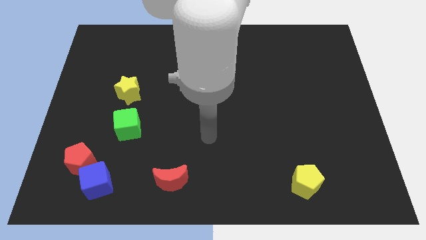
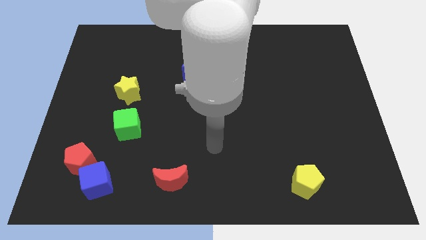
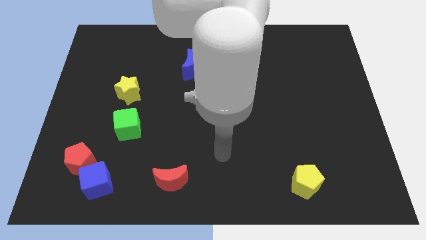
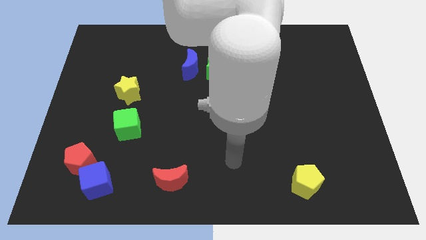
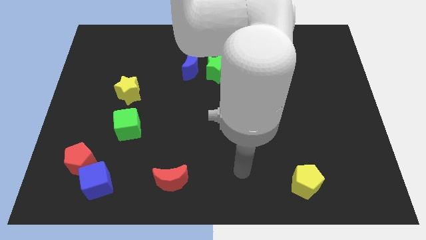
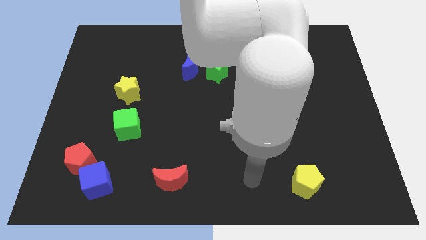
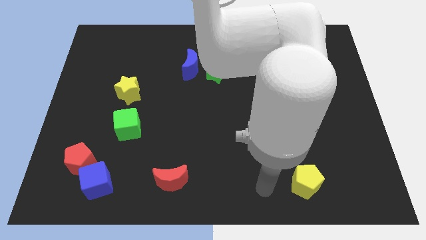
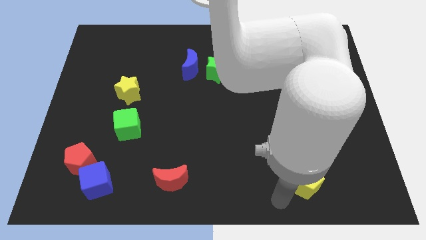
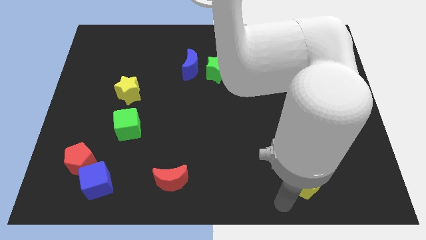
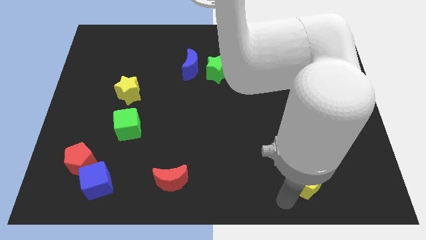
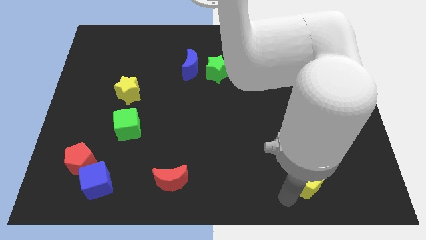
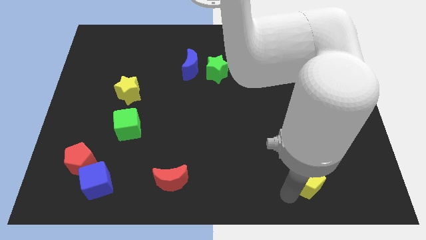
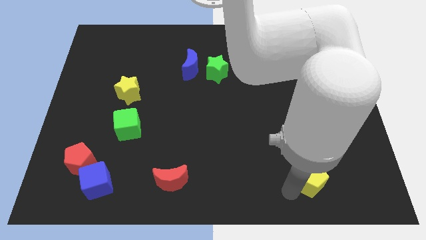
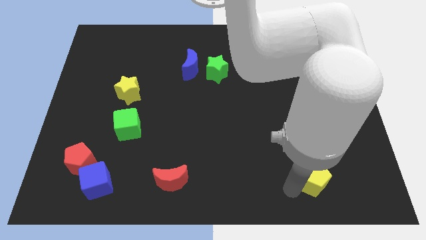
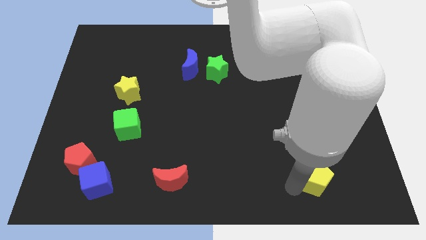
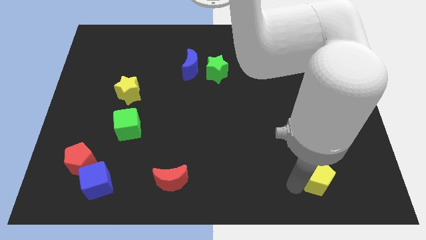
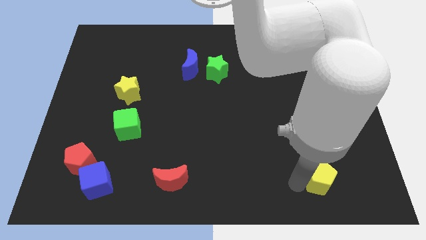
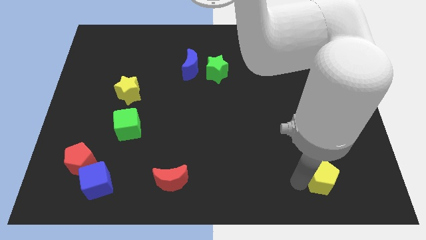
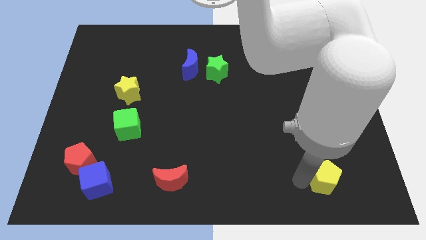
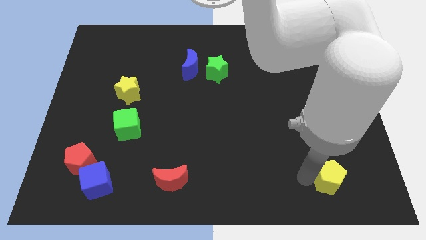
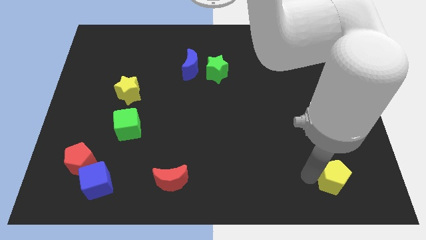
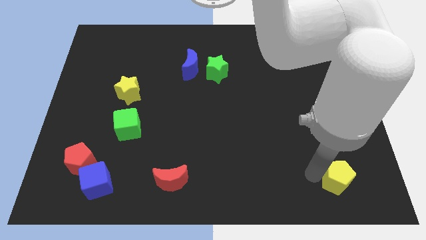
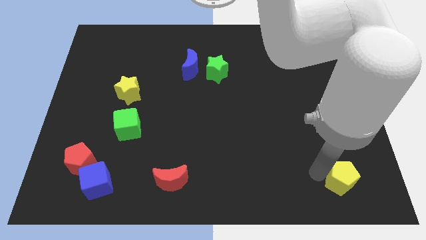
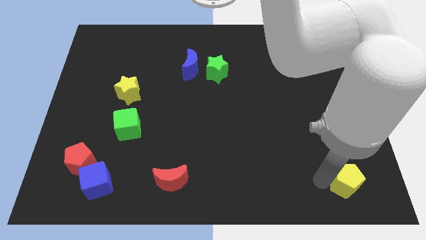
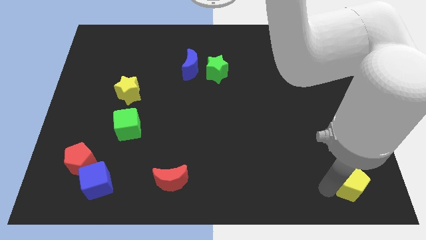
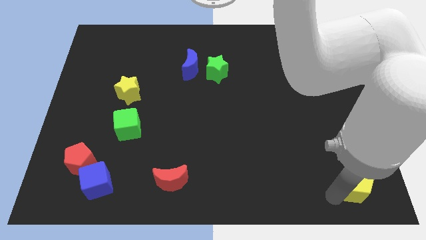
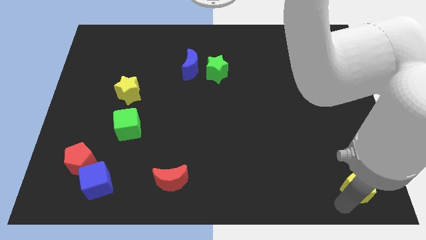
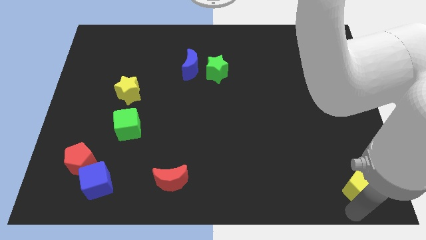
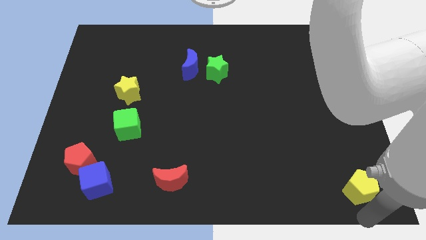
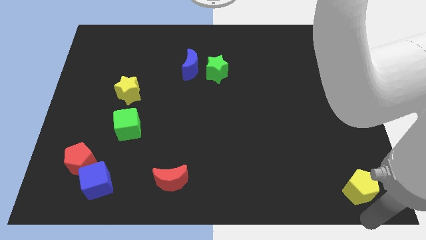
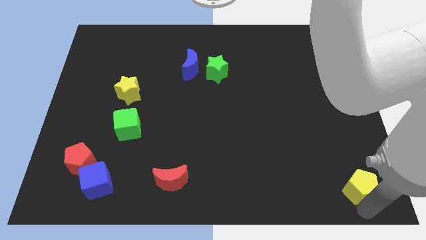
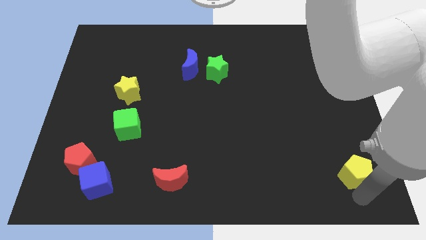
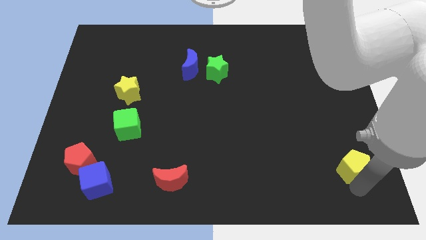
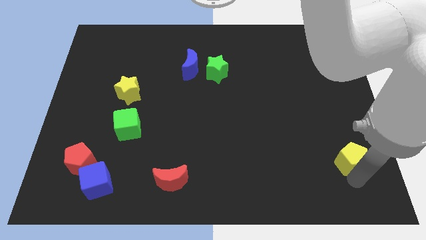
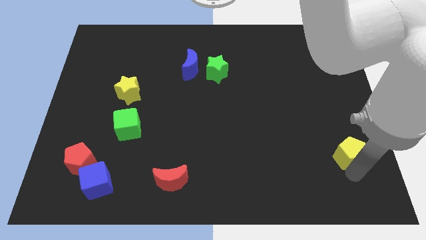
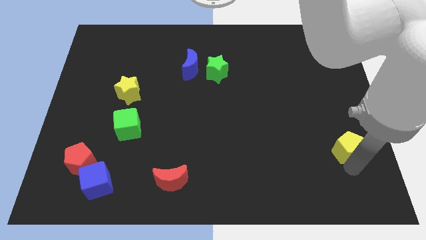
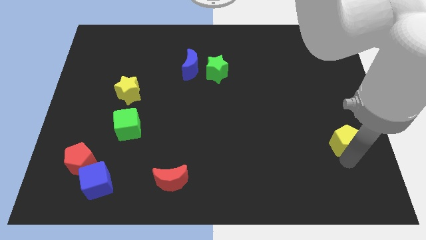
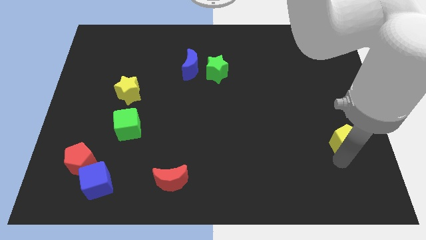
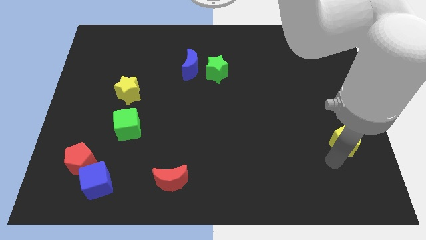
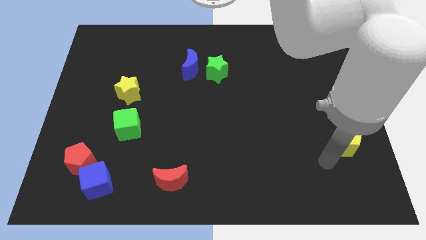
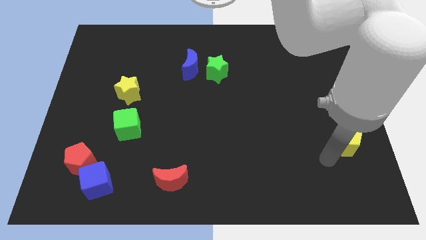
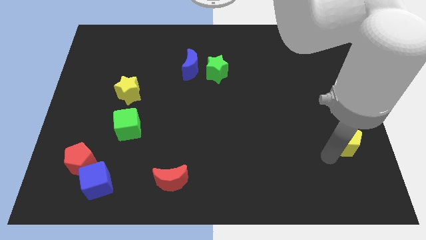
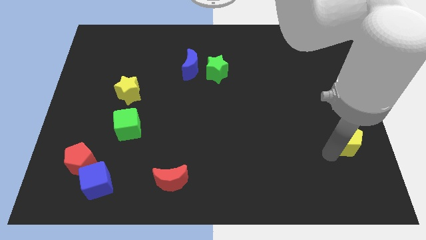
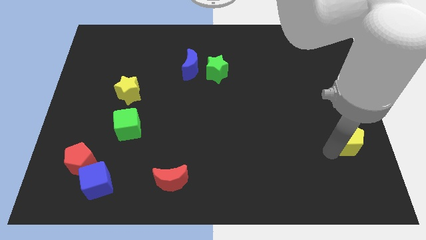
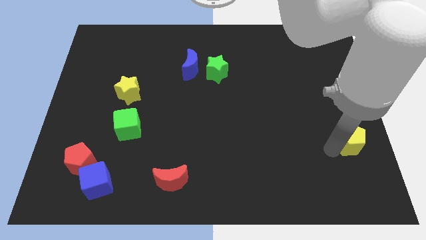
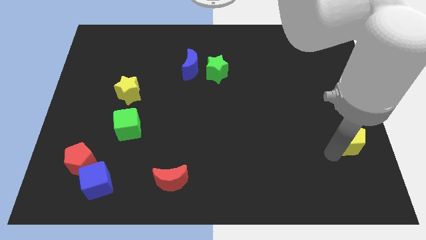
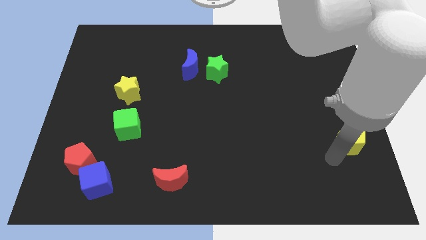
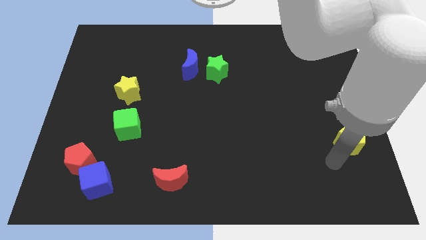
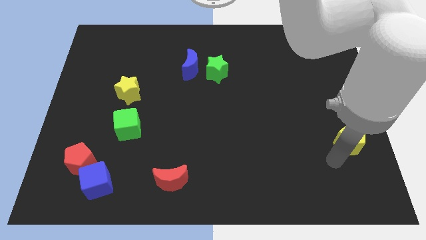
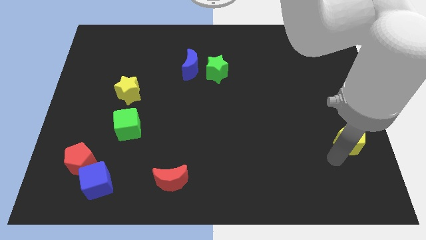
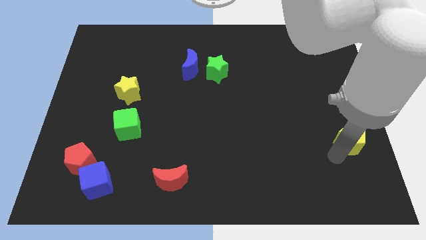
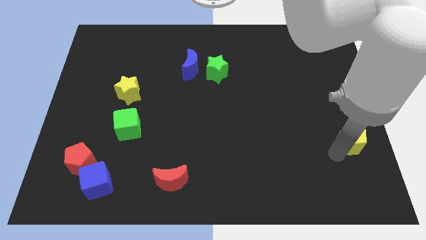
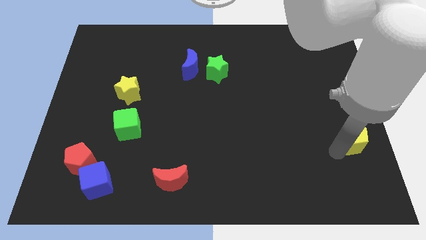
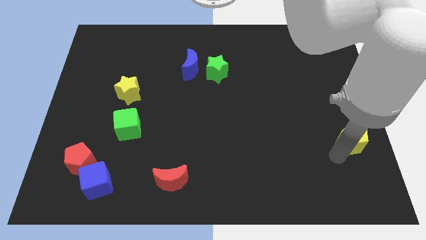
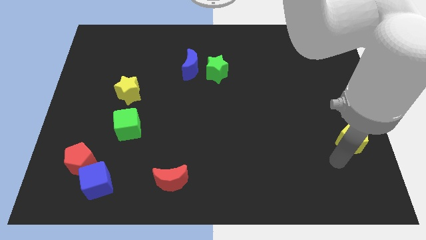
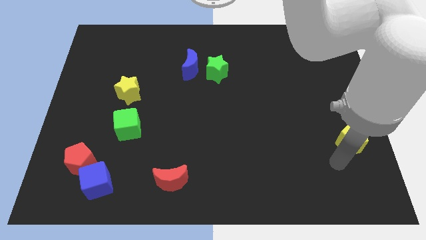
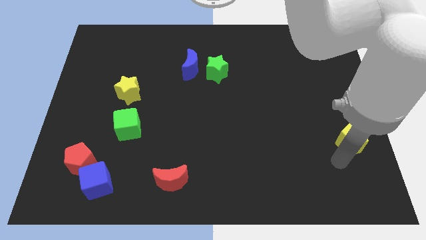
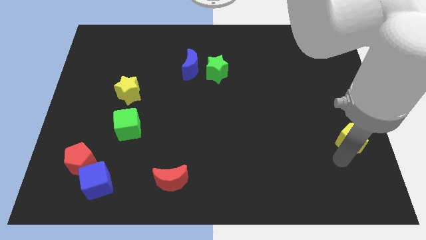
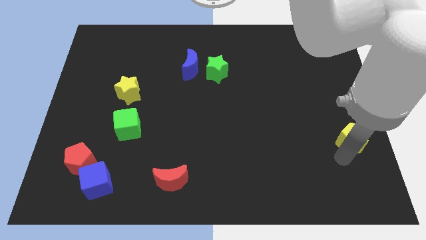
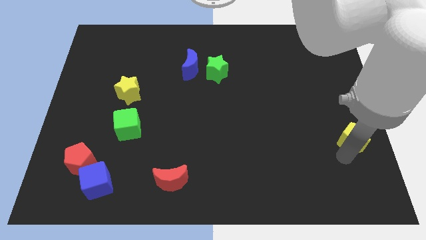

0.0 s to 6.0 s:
push the yellow pentagon to the center right
